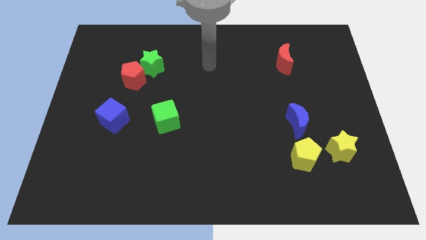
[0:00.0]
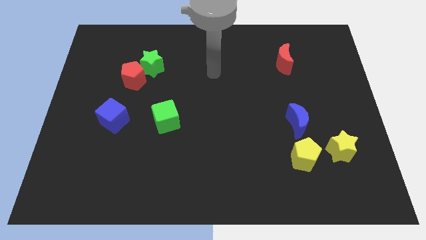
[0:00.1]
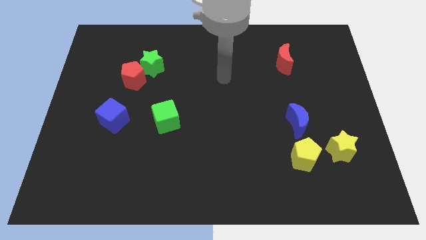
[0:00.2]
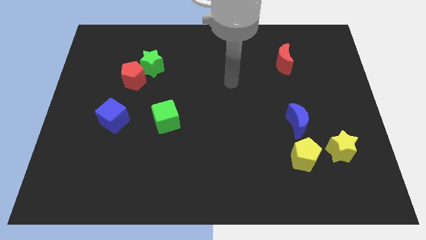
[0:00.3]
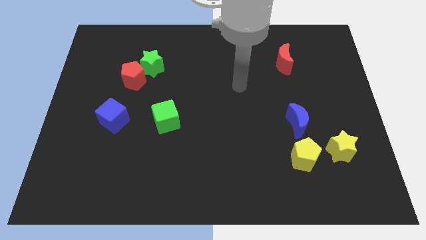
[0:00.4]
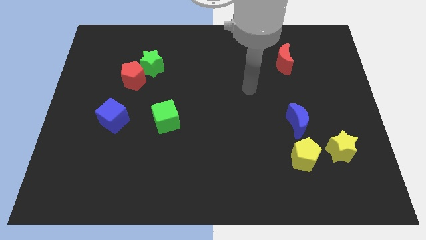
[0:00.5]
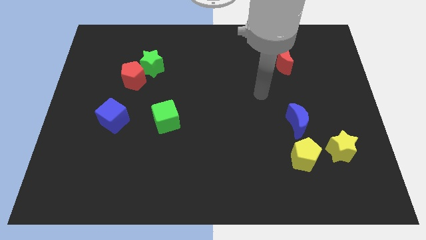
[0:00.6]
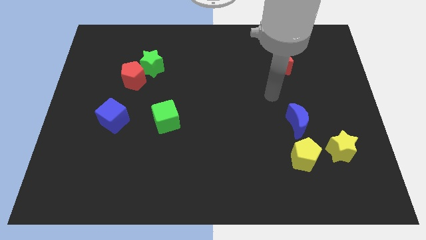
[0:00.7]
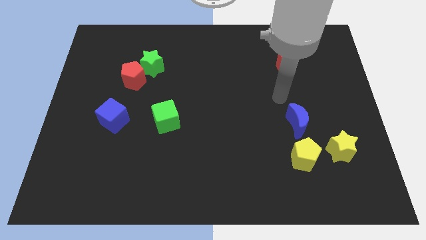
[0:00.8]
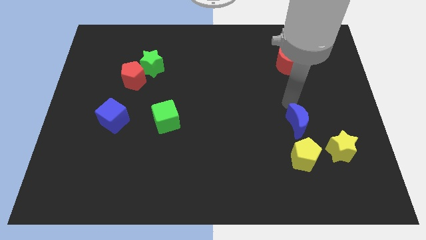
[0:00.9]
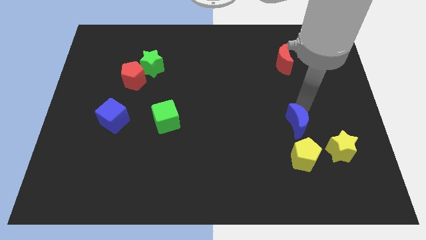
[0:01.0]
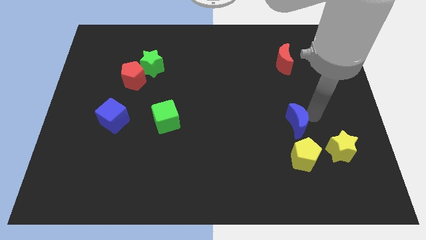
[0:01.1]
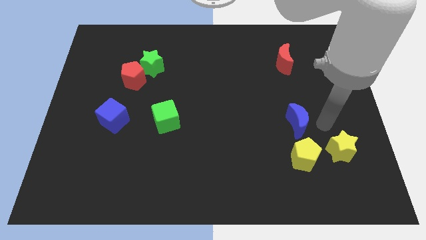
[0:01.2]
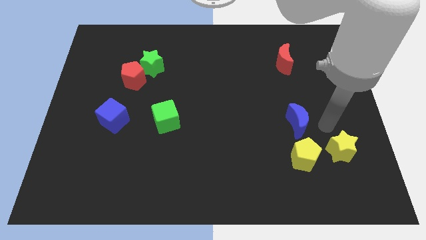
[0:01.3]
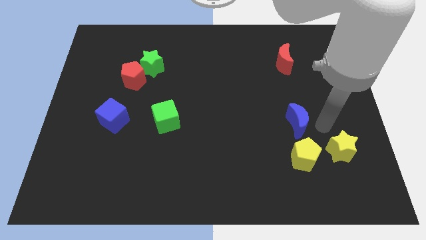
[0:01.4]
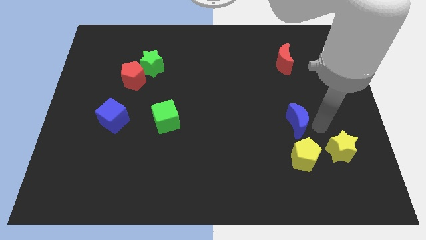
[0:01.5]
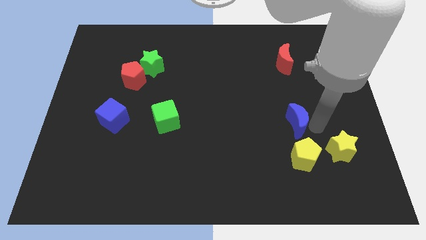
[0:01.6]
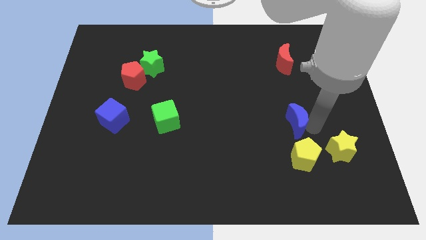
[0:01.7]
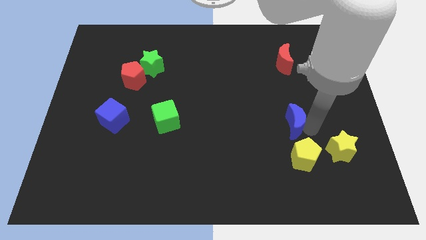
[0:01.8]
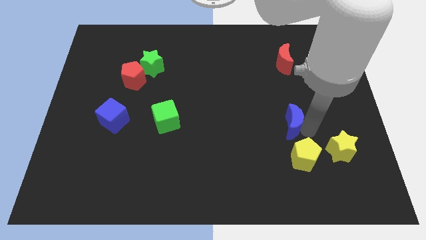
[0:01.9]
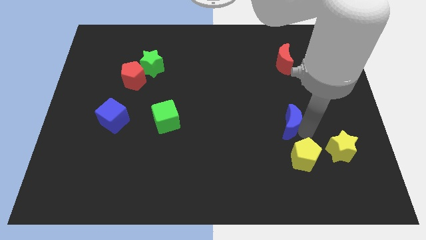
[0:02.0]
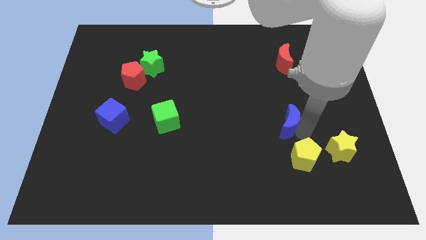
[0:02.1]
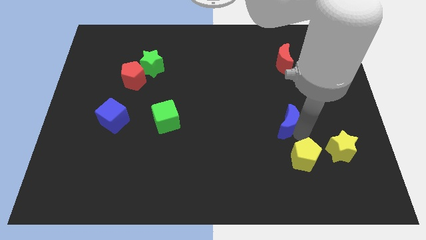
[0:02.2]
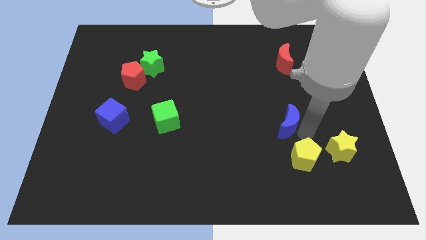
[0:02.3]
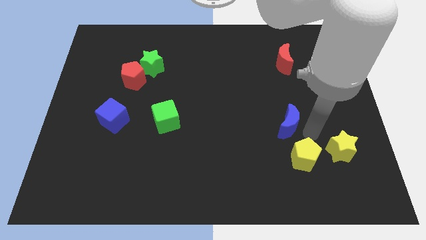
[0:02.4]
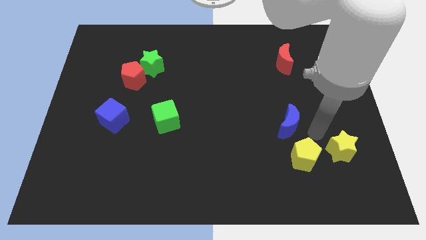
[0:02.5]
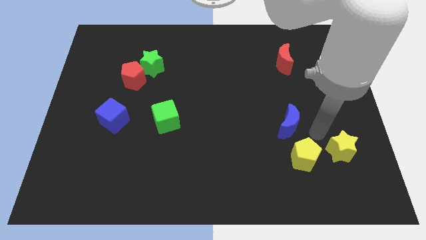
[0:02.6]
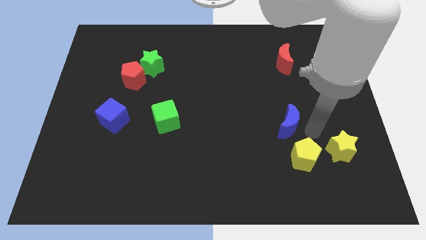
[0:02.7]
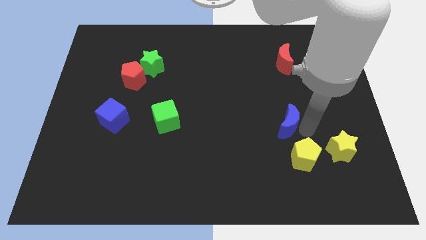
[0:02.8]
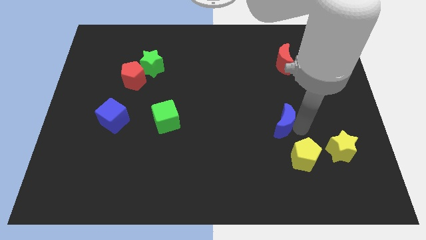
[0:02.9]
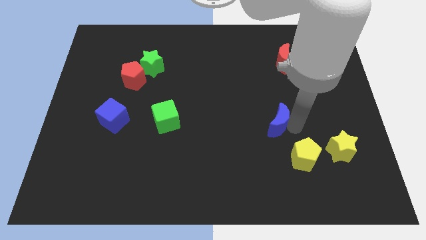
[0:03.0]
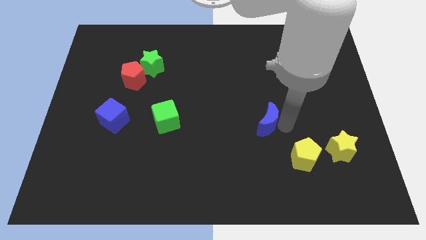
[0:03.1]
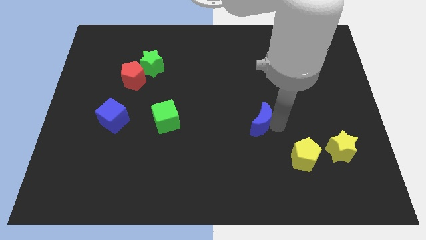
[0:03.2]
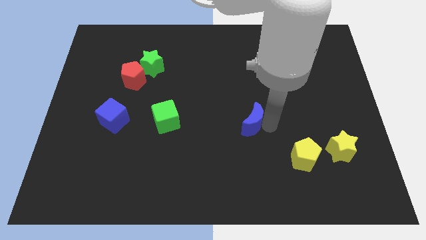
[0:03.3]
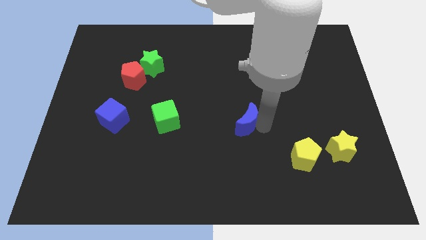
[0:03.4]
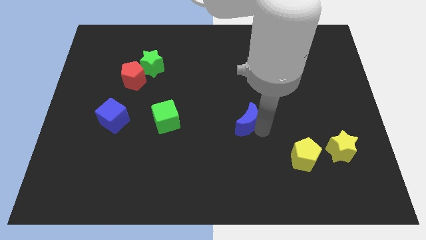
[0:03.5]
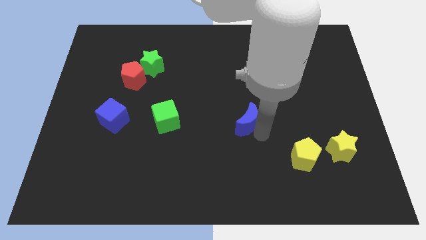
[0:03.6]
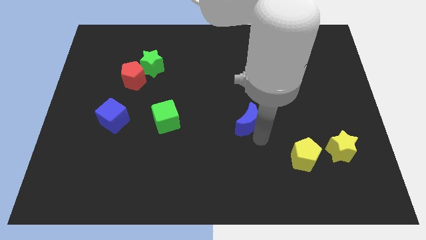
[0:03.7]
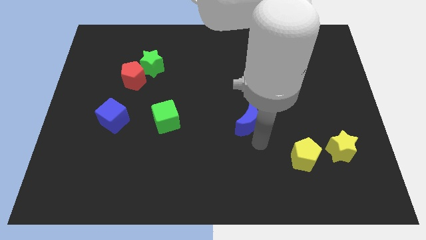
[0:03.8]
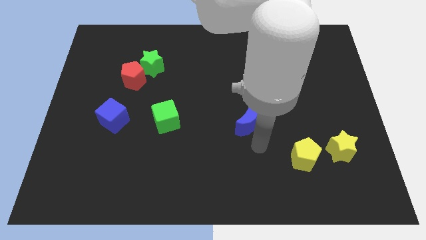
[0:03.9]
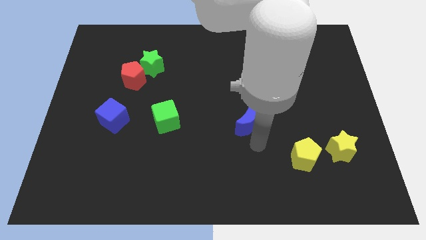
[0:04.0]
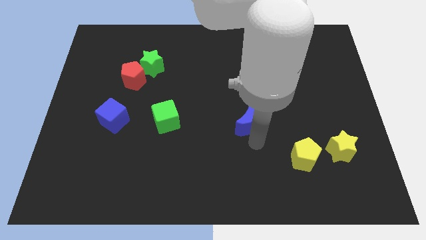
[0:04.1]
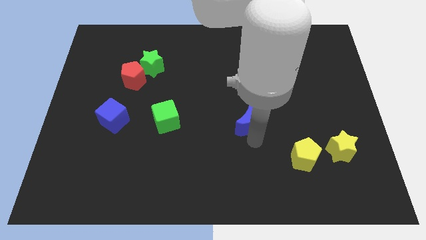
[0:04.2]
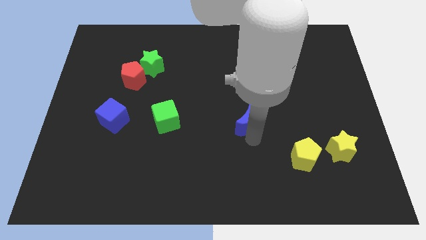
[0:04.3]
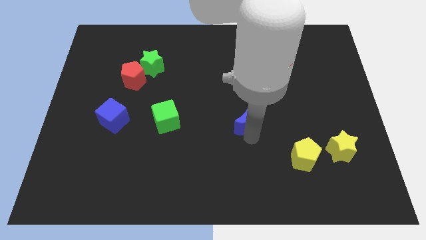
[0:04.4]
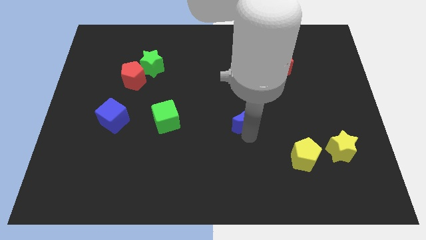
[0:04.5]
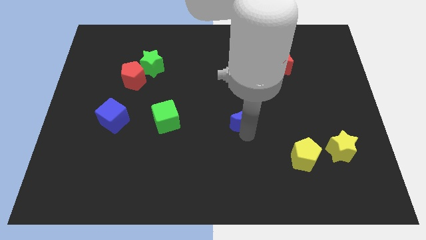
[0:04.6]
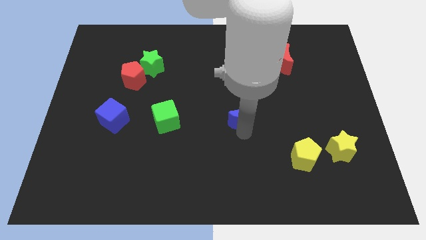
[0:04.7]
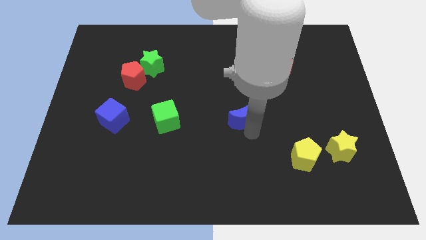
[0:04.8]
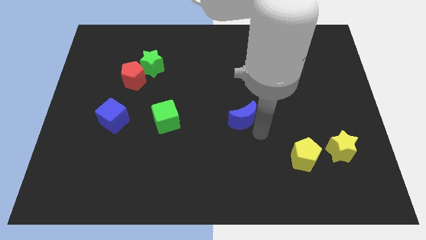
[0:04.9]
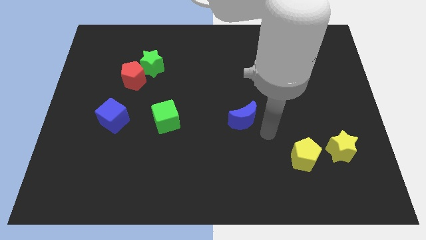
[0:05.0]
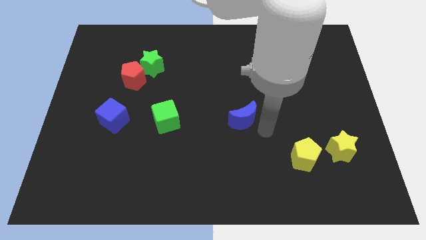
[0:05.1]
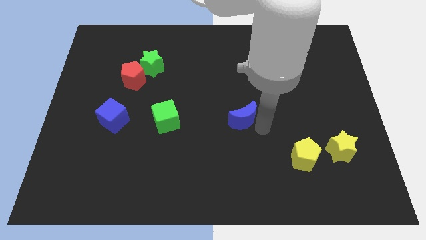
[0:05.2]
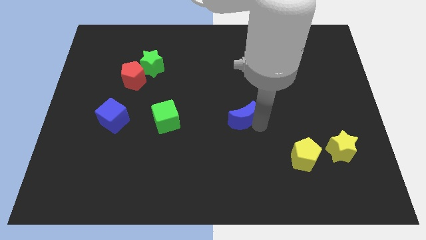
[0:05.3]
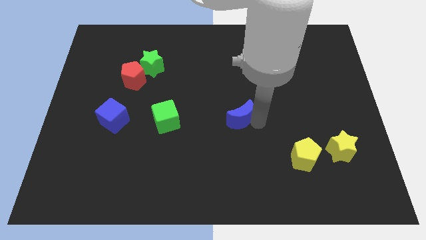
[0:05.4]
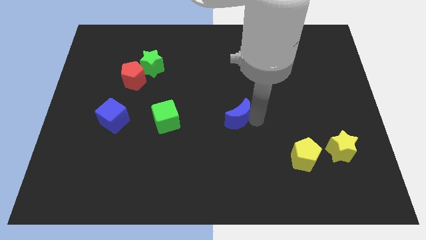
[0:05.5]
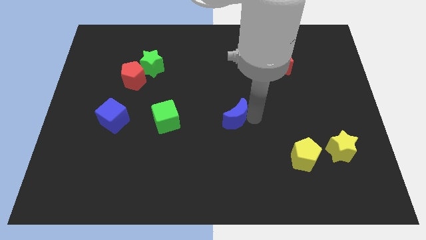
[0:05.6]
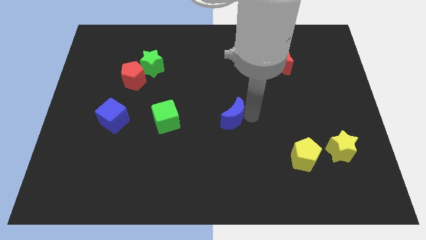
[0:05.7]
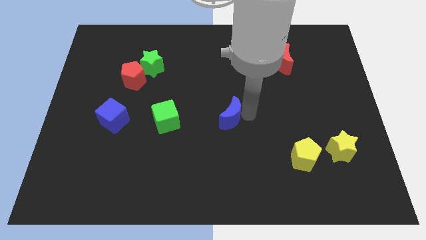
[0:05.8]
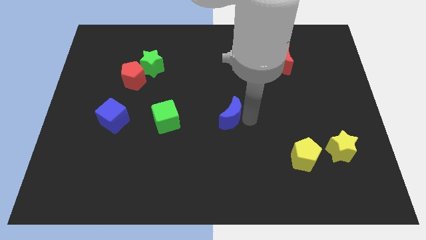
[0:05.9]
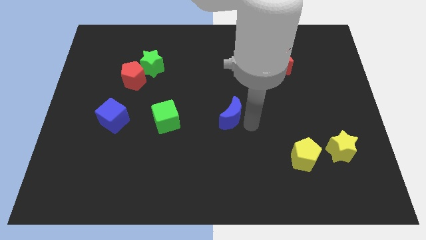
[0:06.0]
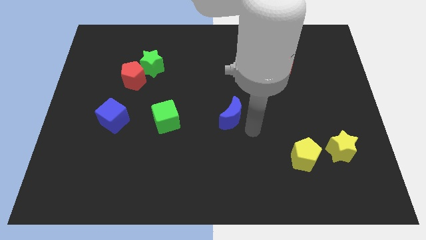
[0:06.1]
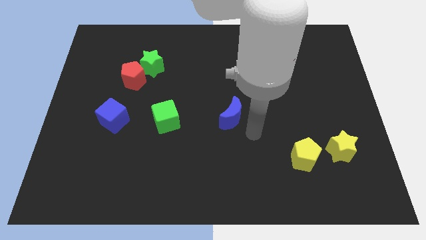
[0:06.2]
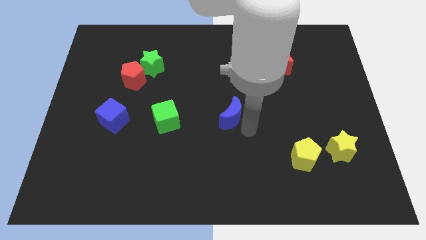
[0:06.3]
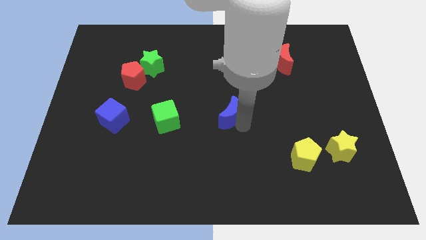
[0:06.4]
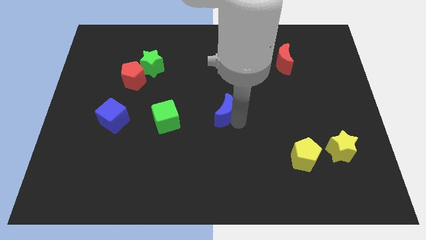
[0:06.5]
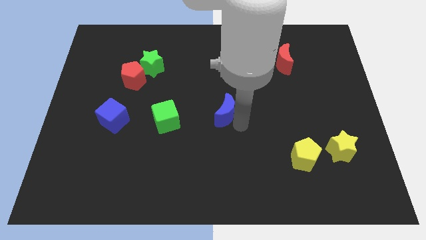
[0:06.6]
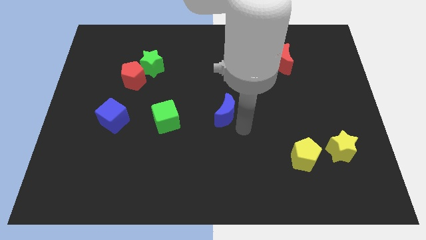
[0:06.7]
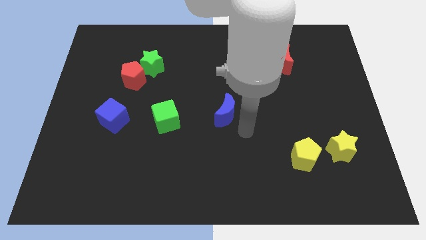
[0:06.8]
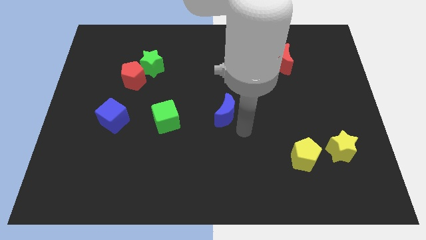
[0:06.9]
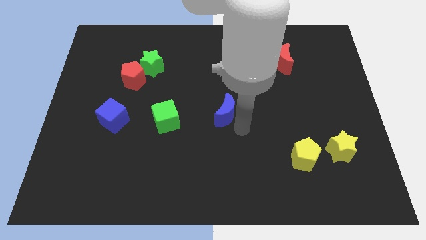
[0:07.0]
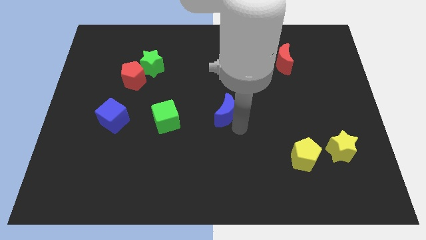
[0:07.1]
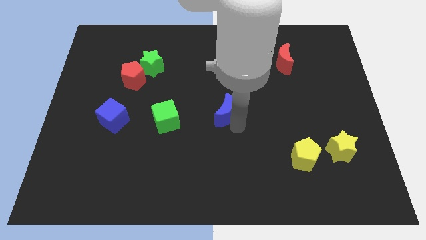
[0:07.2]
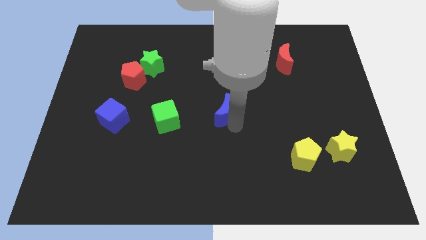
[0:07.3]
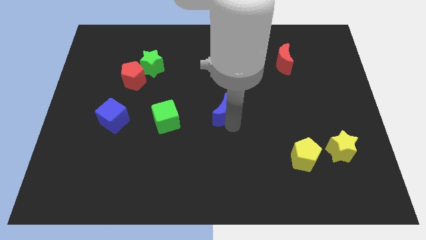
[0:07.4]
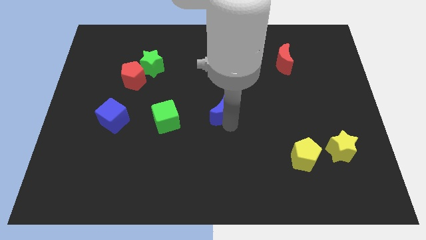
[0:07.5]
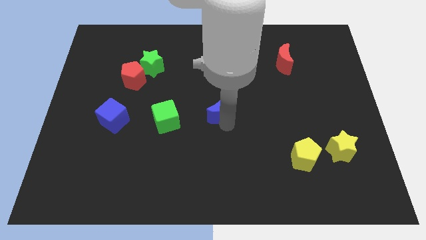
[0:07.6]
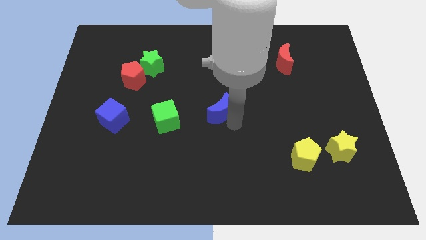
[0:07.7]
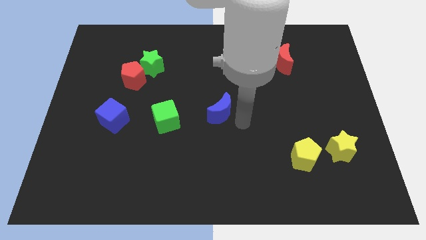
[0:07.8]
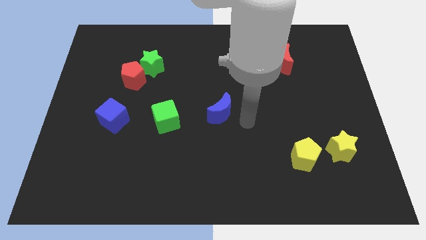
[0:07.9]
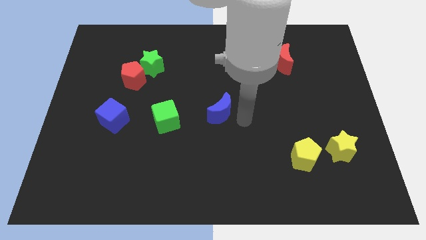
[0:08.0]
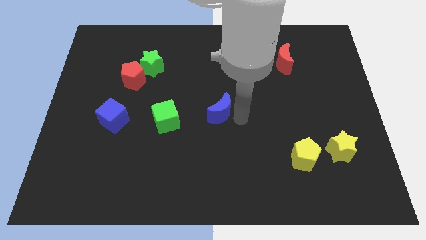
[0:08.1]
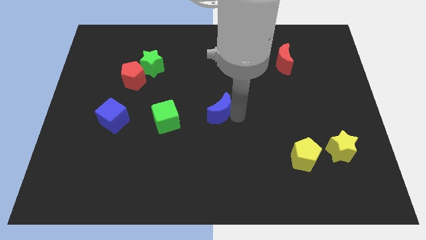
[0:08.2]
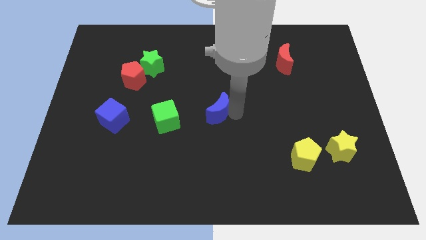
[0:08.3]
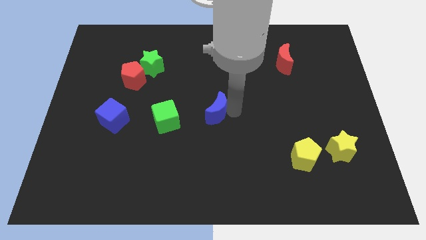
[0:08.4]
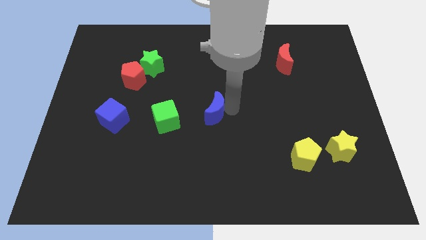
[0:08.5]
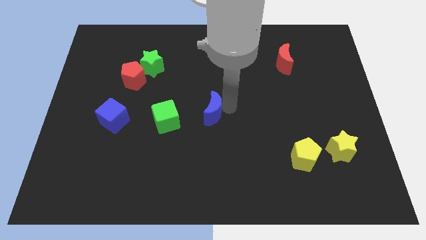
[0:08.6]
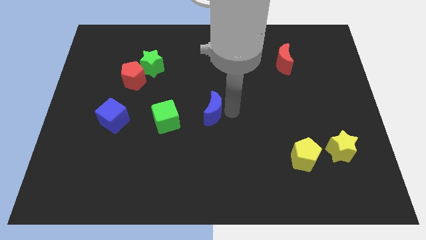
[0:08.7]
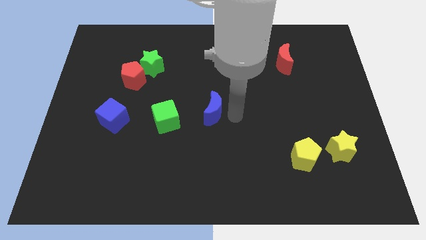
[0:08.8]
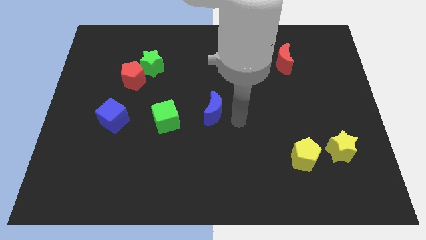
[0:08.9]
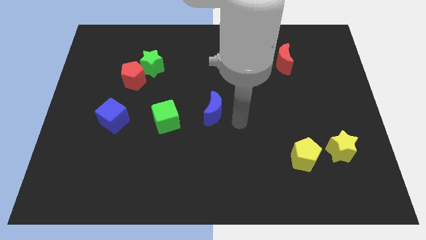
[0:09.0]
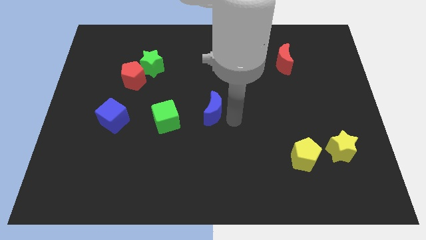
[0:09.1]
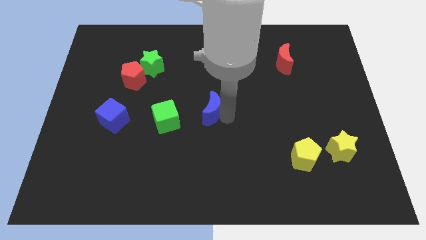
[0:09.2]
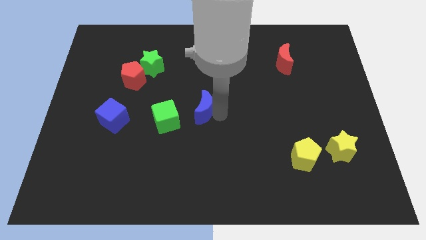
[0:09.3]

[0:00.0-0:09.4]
put the blue moon to the top right of the green cube
